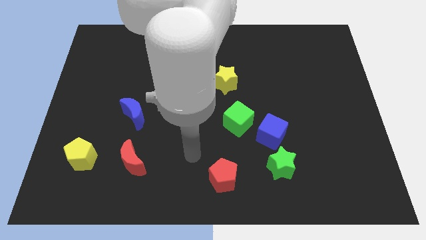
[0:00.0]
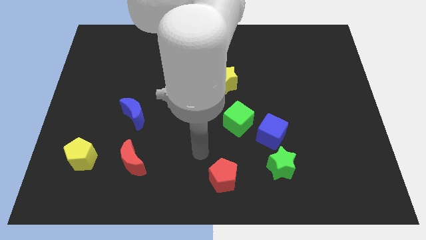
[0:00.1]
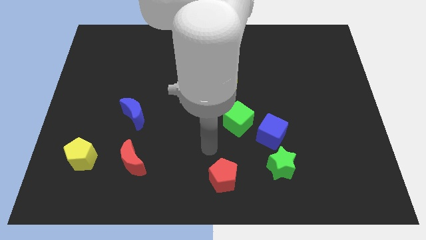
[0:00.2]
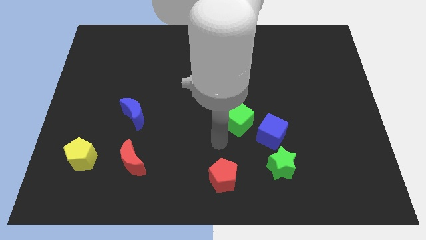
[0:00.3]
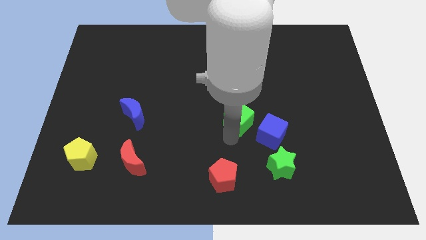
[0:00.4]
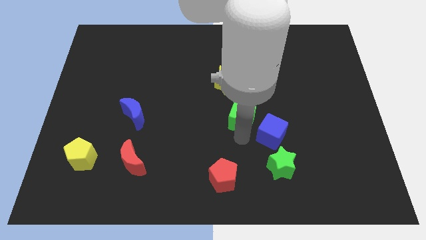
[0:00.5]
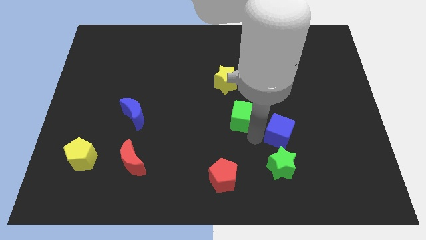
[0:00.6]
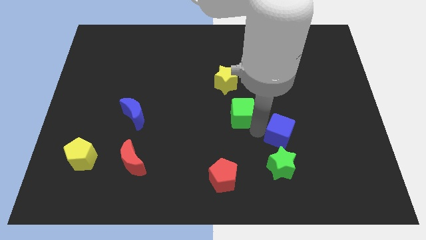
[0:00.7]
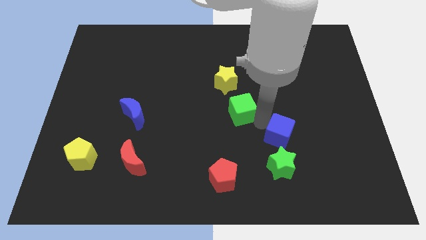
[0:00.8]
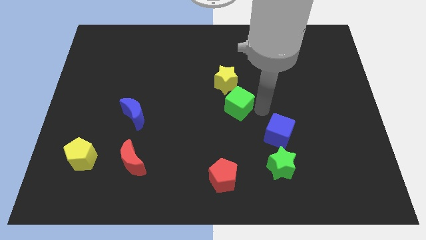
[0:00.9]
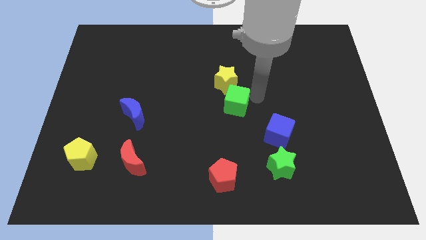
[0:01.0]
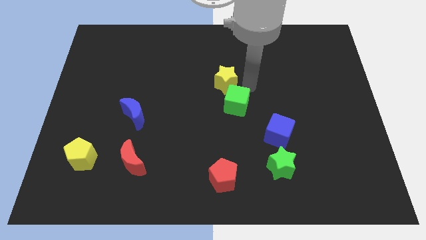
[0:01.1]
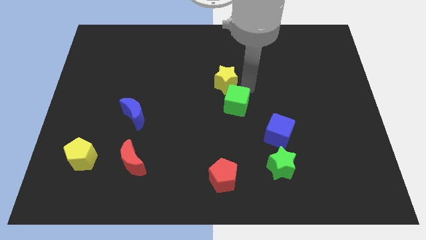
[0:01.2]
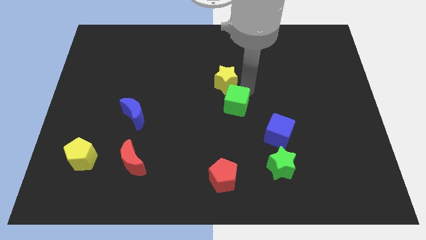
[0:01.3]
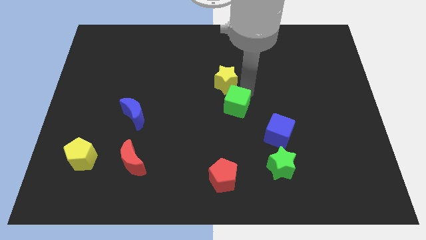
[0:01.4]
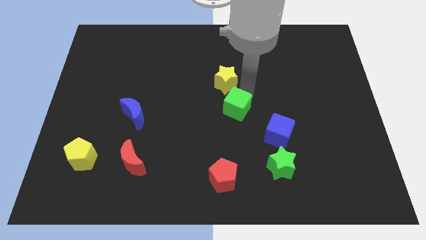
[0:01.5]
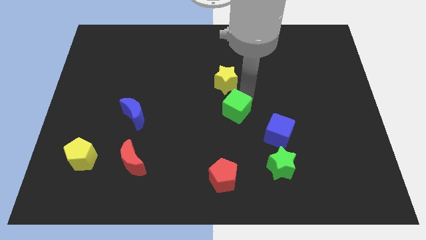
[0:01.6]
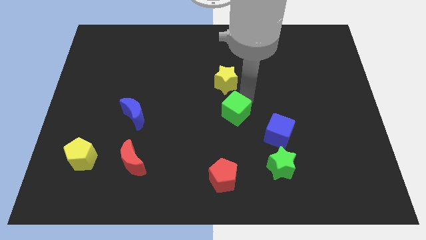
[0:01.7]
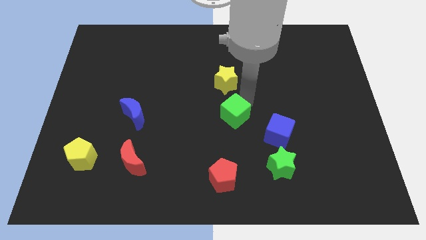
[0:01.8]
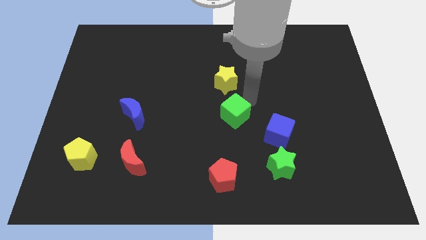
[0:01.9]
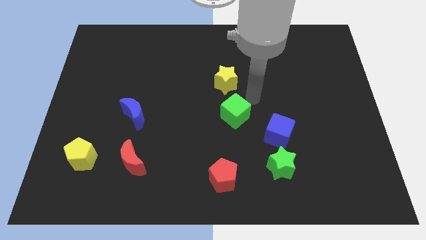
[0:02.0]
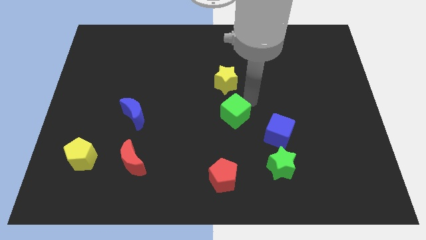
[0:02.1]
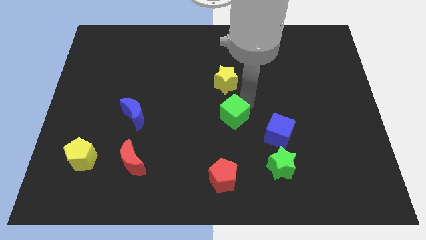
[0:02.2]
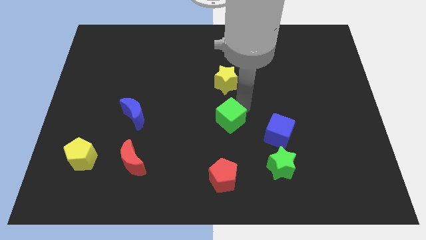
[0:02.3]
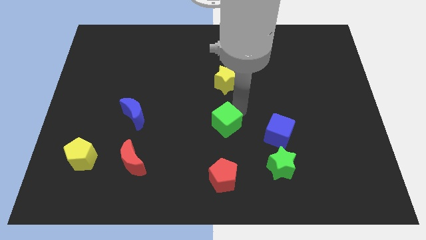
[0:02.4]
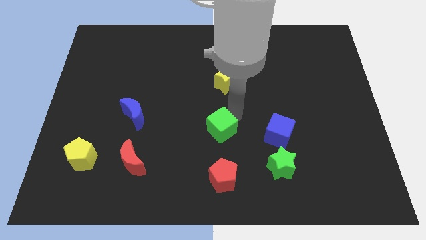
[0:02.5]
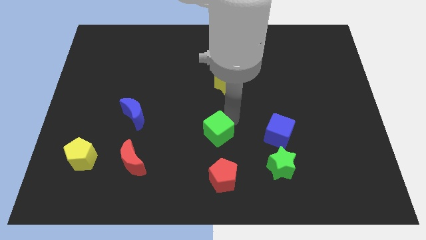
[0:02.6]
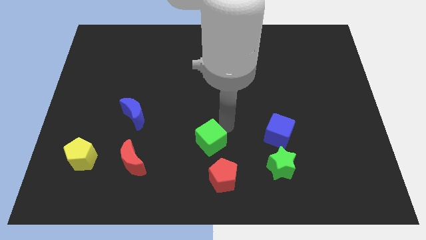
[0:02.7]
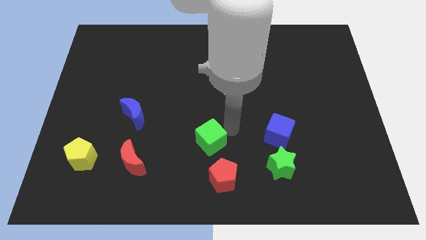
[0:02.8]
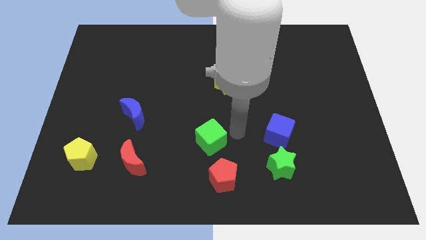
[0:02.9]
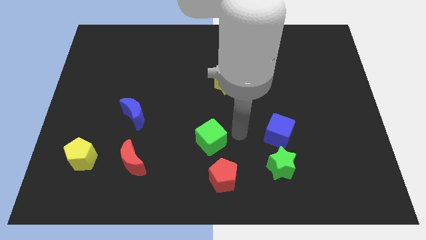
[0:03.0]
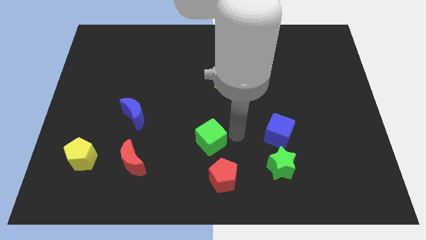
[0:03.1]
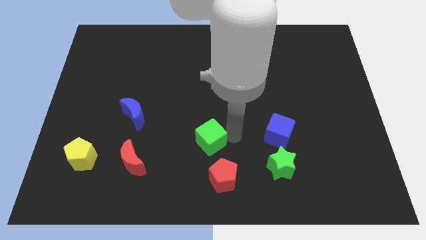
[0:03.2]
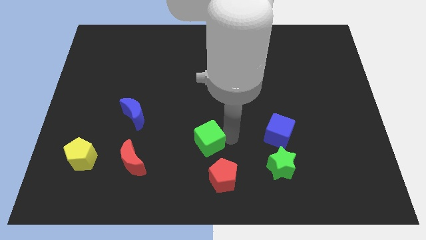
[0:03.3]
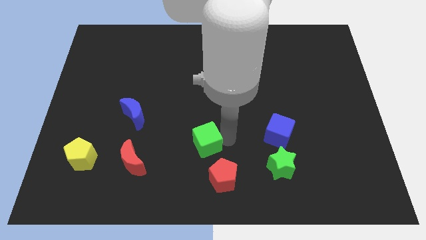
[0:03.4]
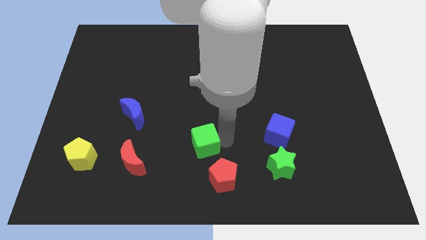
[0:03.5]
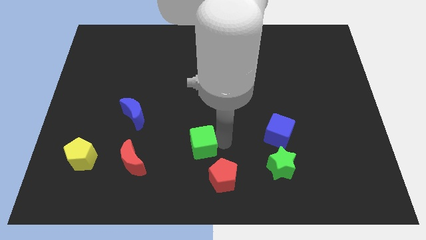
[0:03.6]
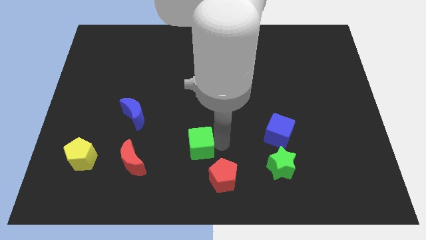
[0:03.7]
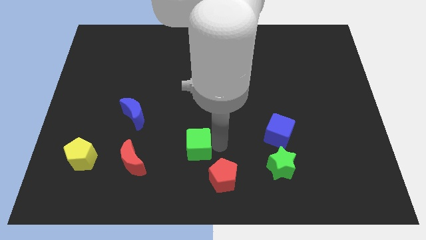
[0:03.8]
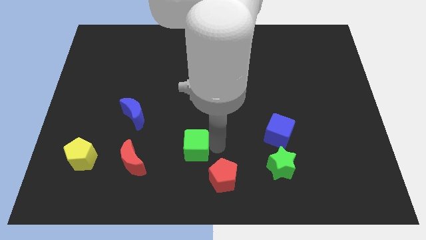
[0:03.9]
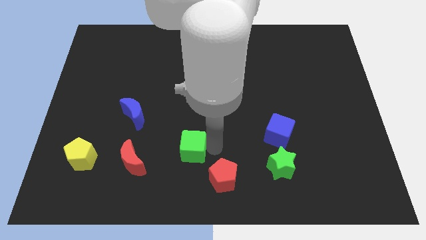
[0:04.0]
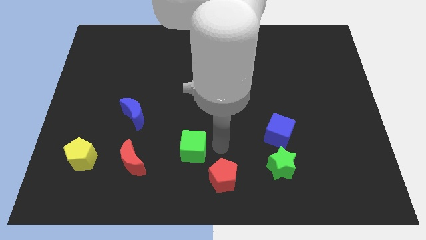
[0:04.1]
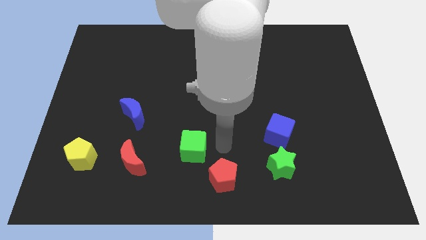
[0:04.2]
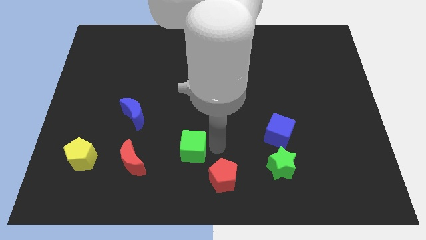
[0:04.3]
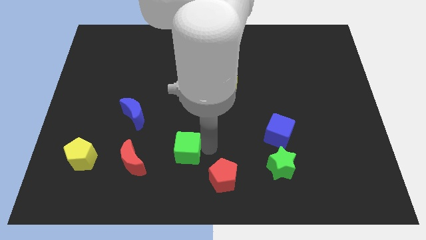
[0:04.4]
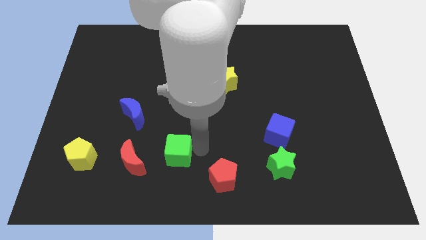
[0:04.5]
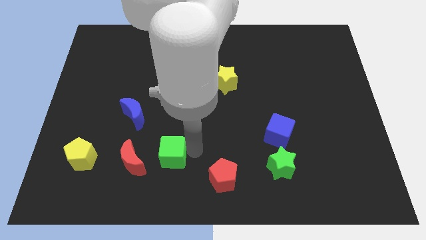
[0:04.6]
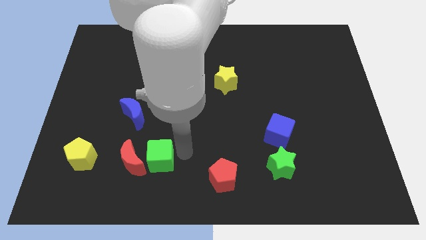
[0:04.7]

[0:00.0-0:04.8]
move the green cube towards the red moon

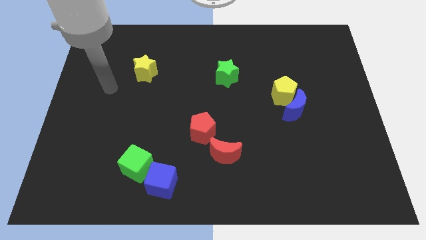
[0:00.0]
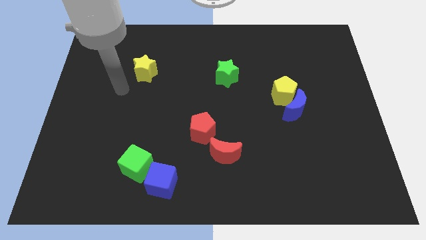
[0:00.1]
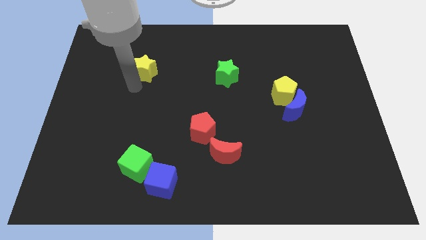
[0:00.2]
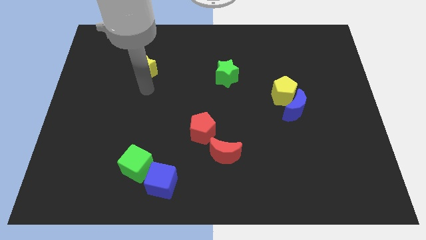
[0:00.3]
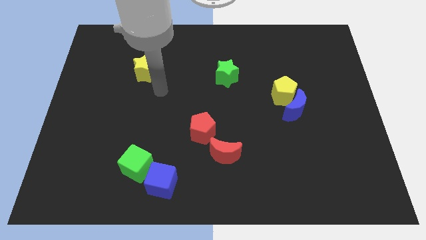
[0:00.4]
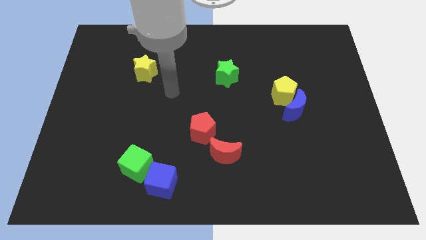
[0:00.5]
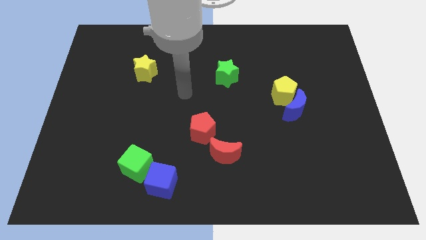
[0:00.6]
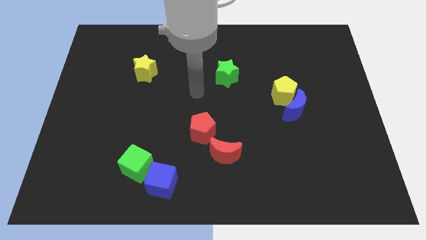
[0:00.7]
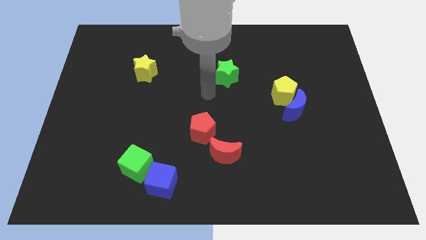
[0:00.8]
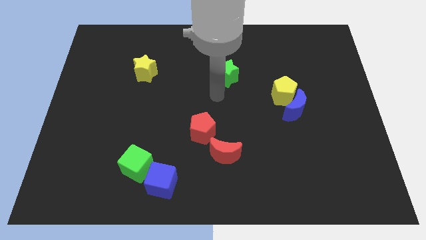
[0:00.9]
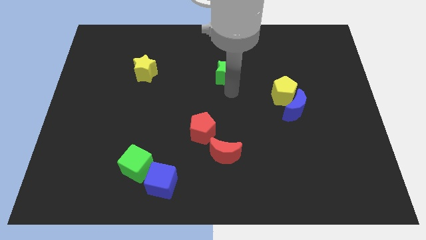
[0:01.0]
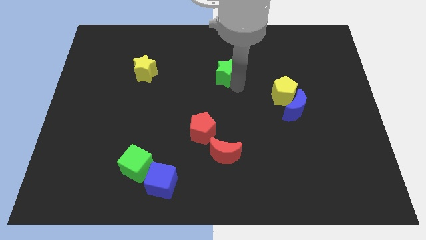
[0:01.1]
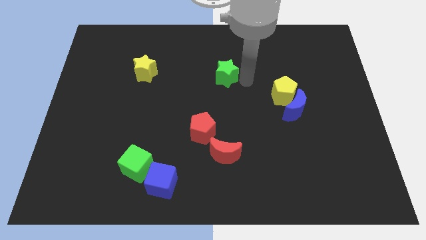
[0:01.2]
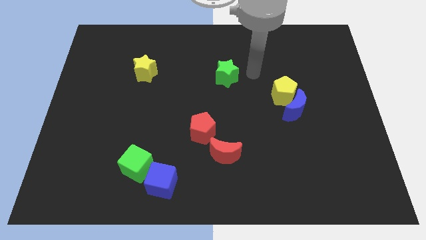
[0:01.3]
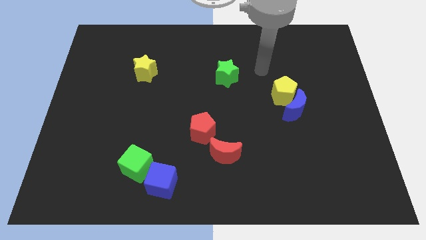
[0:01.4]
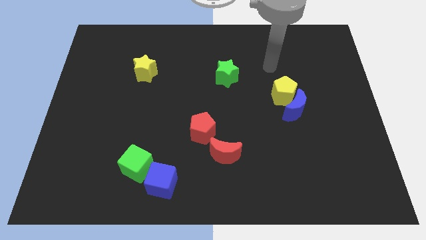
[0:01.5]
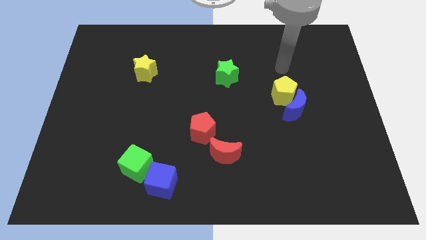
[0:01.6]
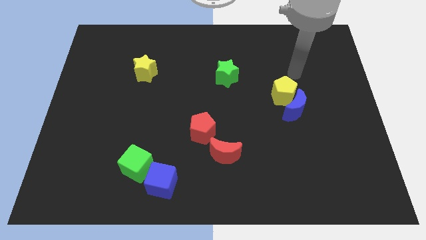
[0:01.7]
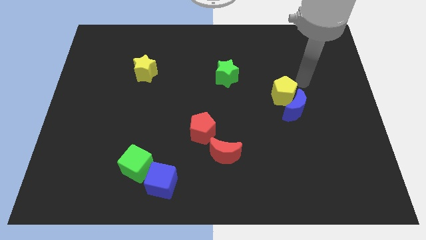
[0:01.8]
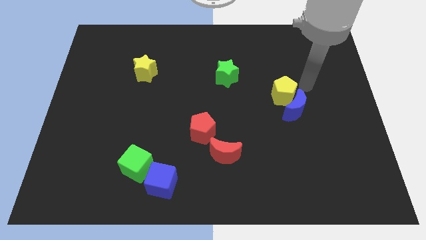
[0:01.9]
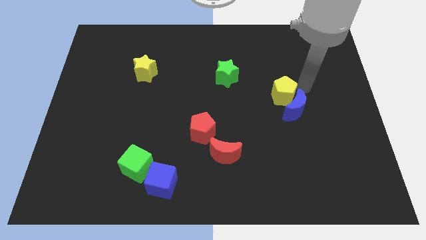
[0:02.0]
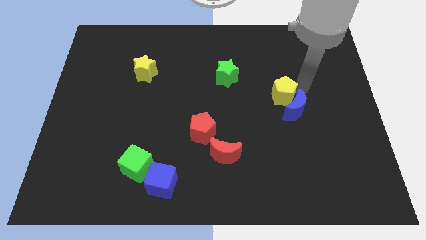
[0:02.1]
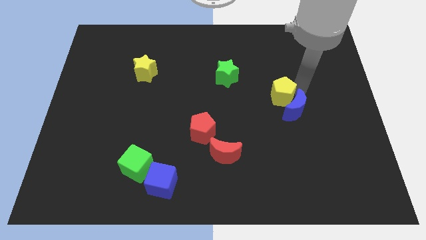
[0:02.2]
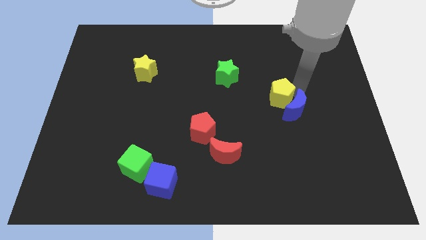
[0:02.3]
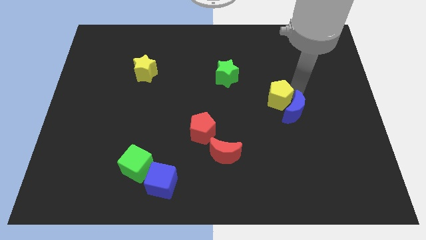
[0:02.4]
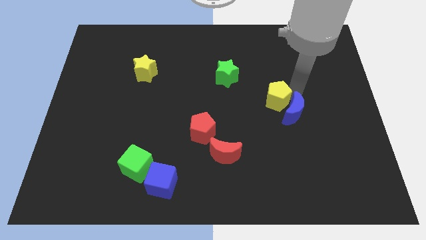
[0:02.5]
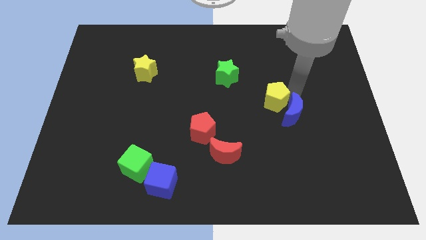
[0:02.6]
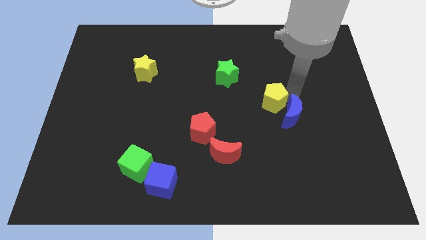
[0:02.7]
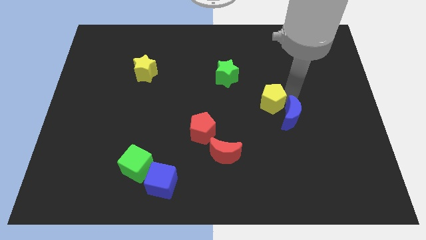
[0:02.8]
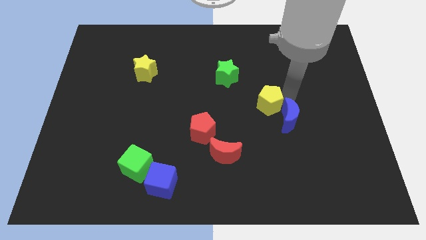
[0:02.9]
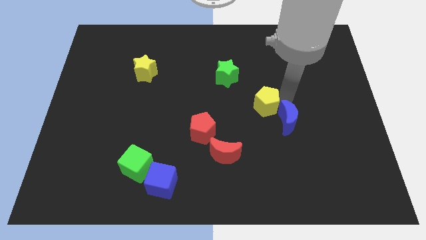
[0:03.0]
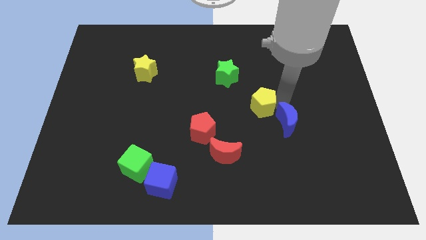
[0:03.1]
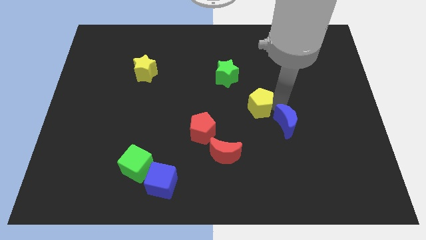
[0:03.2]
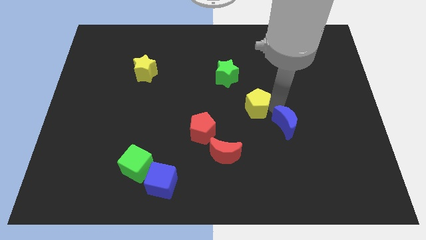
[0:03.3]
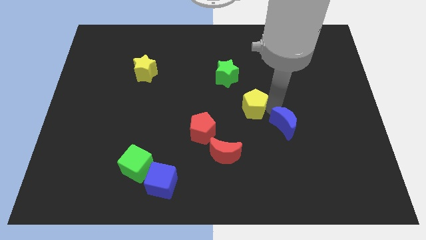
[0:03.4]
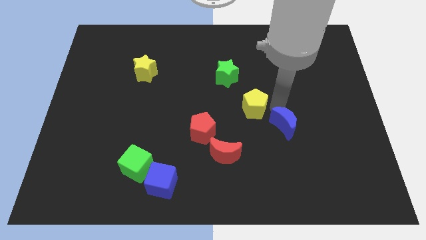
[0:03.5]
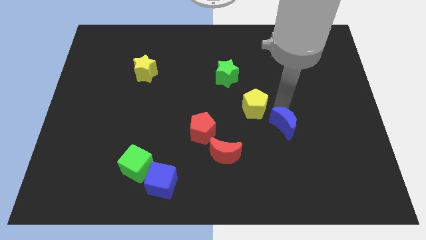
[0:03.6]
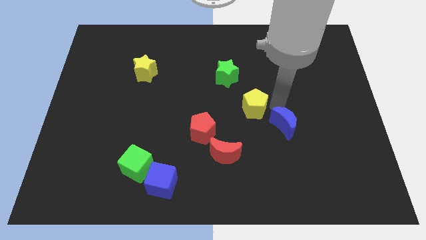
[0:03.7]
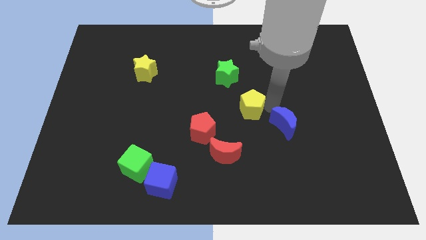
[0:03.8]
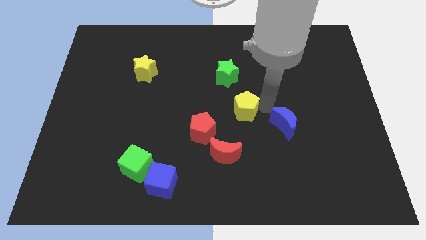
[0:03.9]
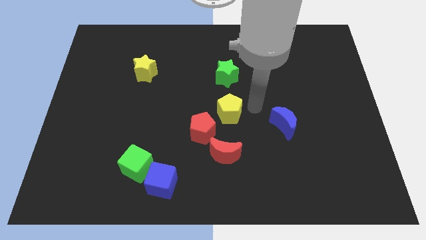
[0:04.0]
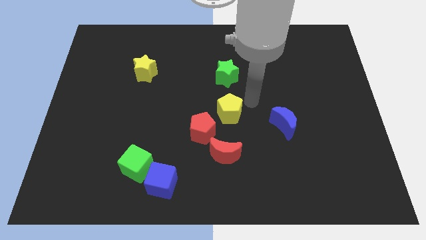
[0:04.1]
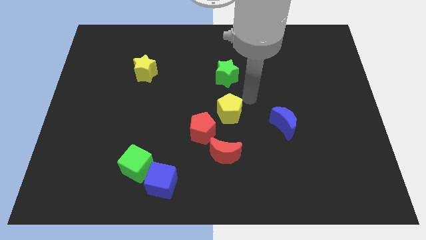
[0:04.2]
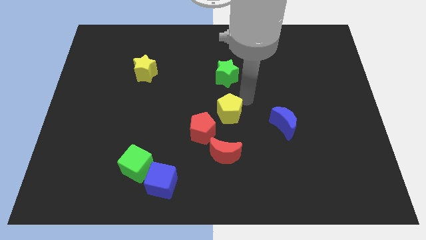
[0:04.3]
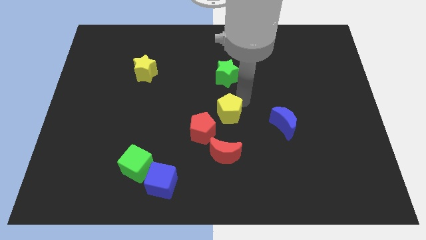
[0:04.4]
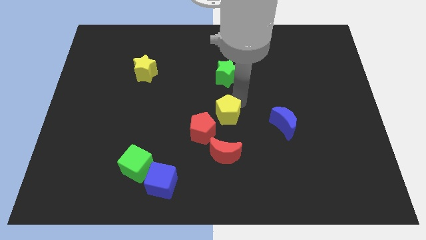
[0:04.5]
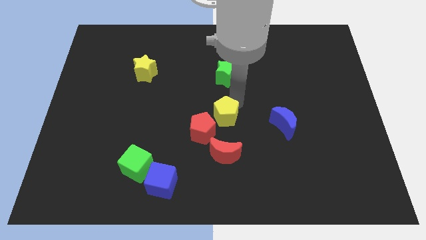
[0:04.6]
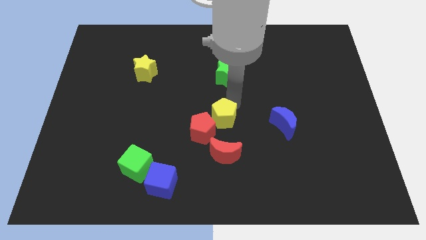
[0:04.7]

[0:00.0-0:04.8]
slide the yellow pentagon towards the red pentagon
